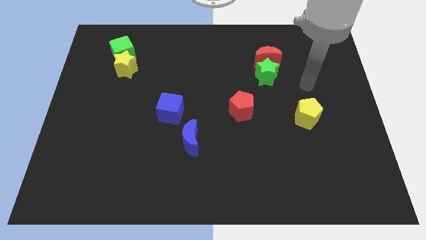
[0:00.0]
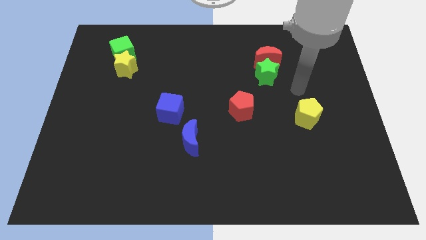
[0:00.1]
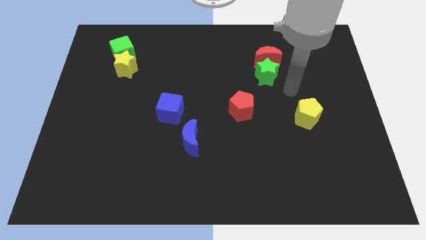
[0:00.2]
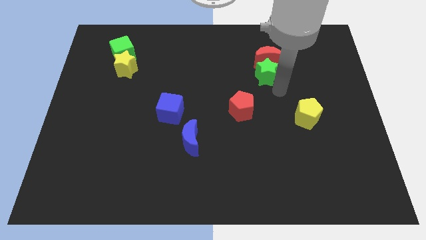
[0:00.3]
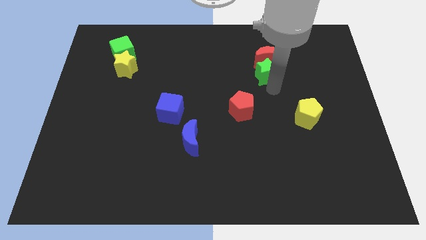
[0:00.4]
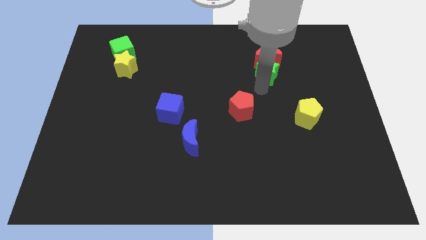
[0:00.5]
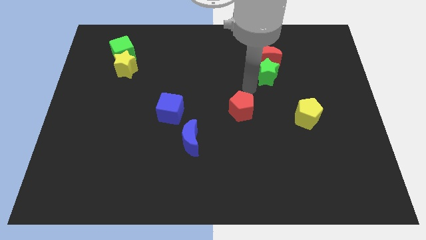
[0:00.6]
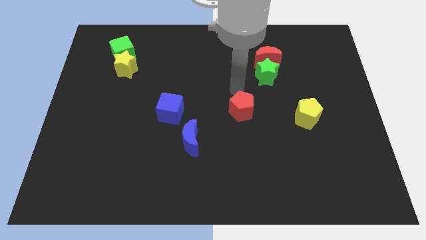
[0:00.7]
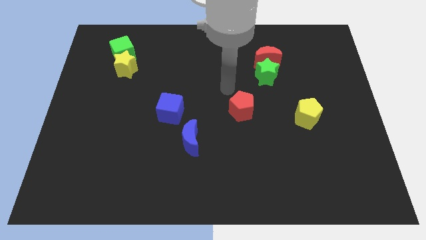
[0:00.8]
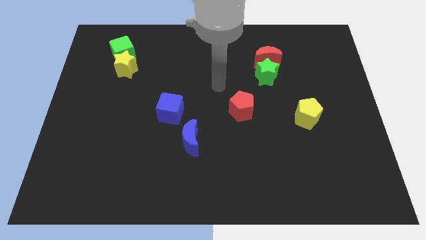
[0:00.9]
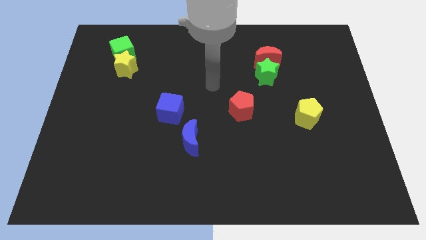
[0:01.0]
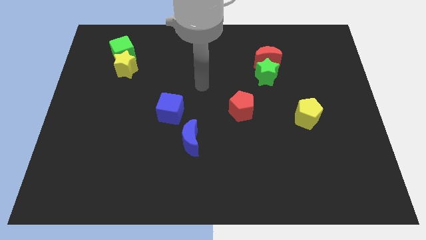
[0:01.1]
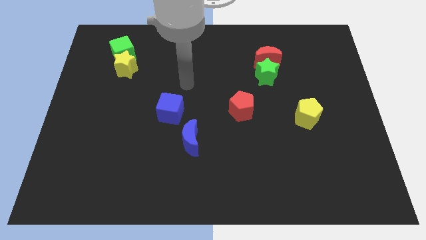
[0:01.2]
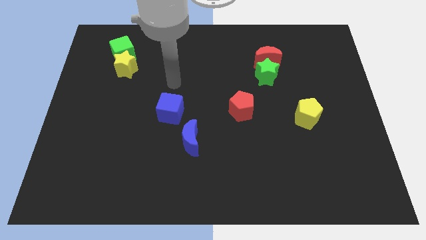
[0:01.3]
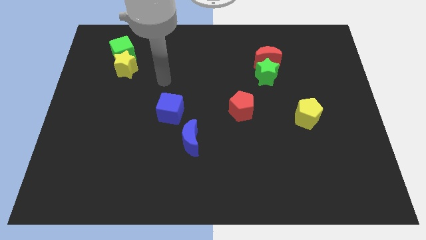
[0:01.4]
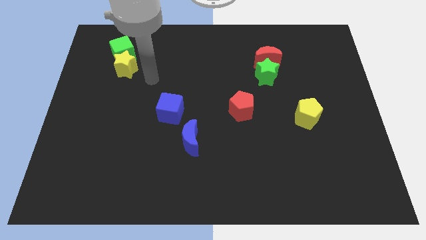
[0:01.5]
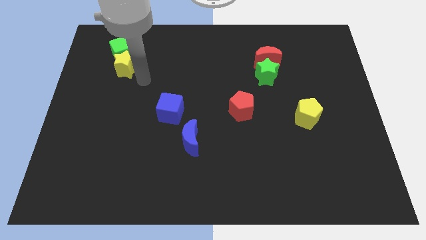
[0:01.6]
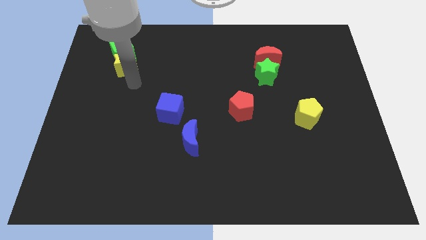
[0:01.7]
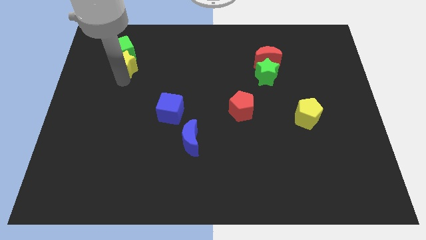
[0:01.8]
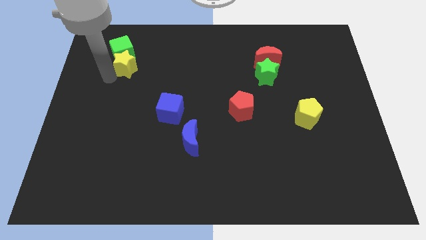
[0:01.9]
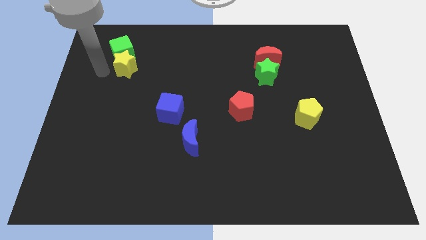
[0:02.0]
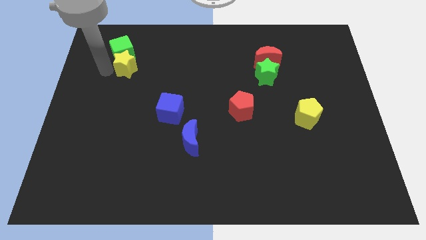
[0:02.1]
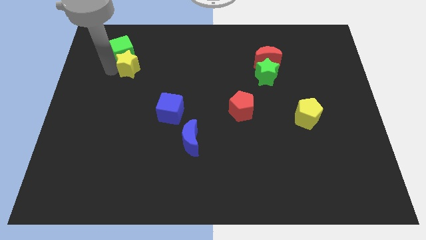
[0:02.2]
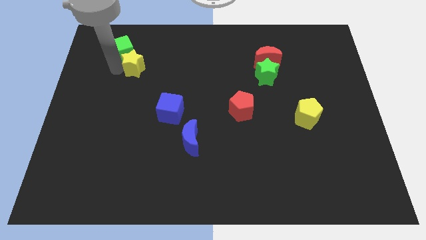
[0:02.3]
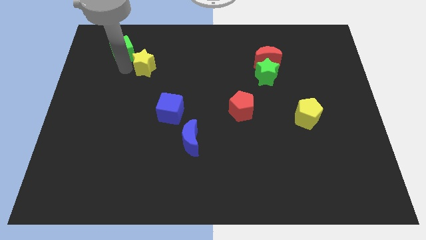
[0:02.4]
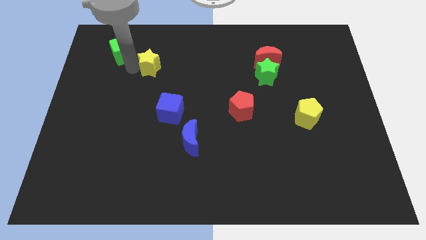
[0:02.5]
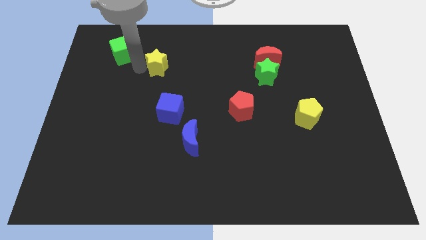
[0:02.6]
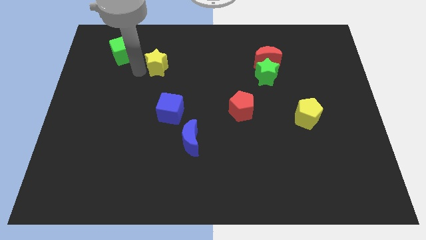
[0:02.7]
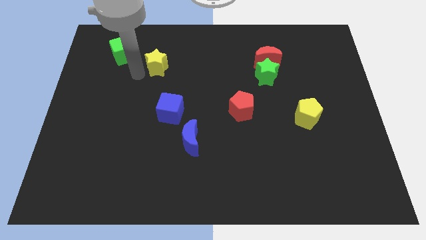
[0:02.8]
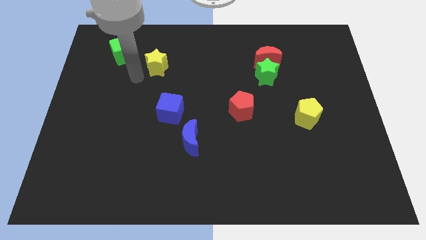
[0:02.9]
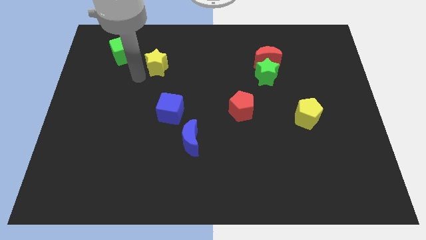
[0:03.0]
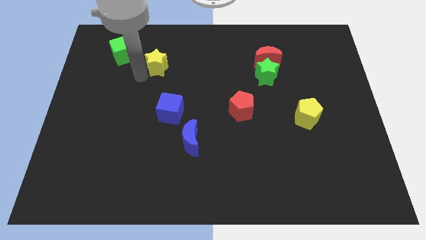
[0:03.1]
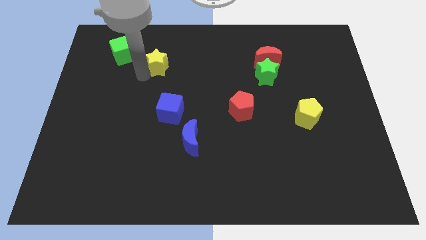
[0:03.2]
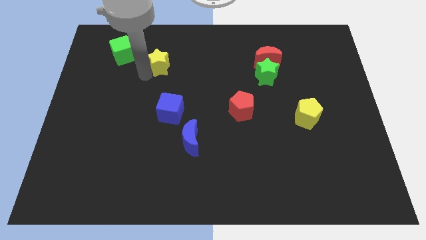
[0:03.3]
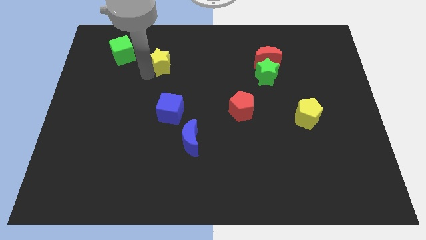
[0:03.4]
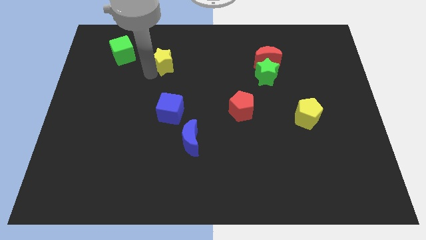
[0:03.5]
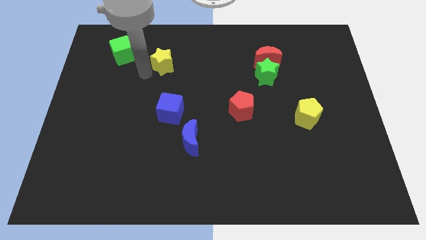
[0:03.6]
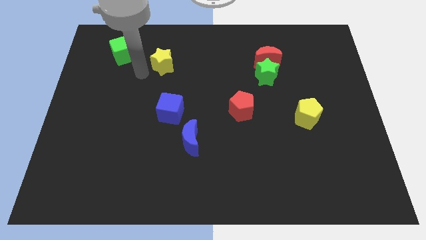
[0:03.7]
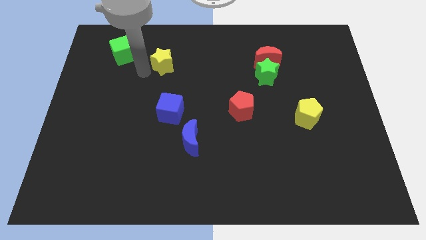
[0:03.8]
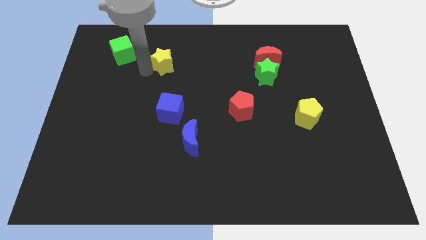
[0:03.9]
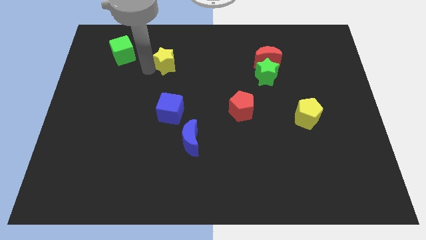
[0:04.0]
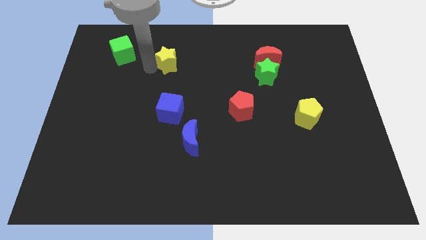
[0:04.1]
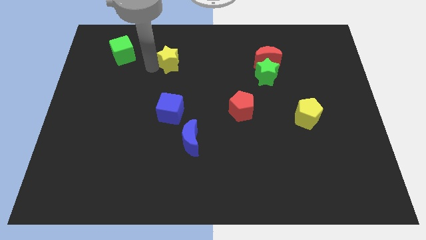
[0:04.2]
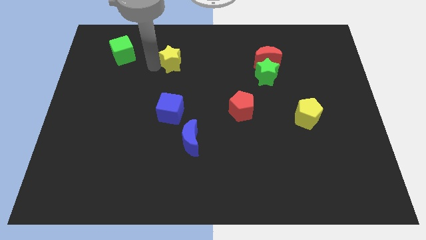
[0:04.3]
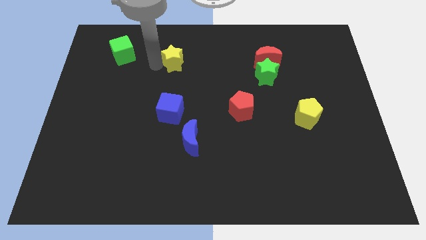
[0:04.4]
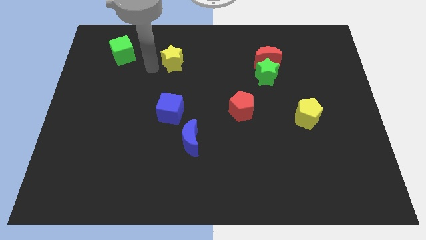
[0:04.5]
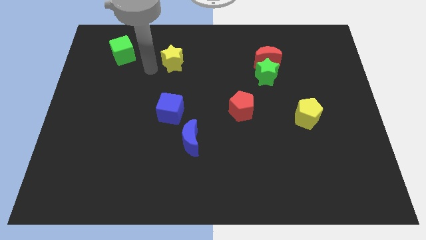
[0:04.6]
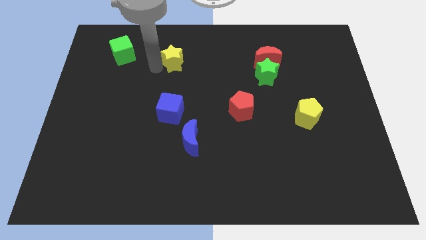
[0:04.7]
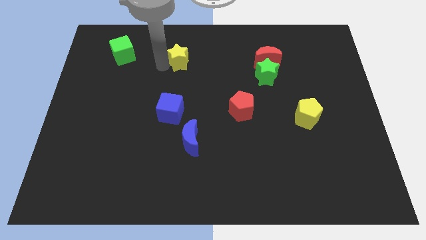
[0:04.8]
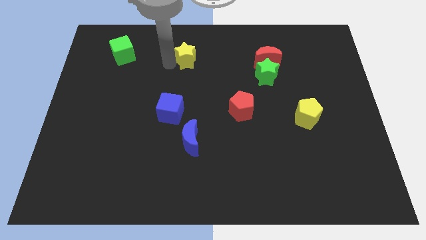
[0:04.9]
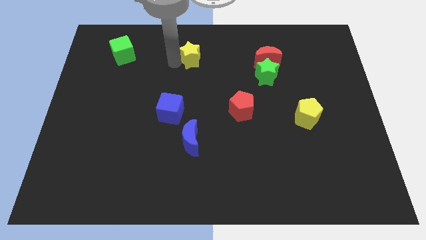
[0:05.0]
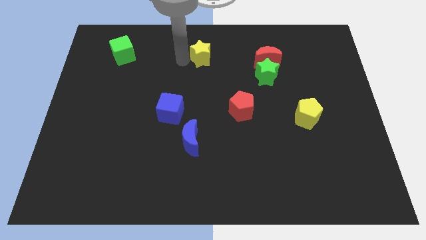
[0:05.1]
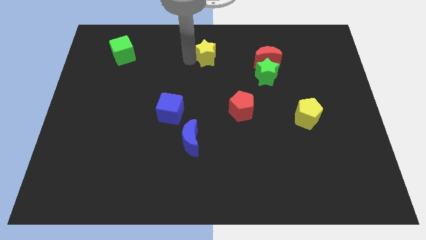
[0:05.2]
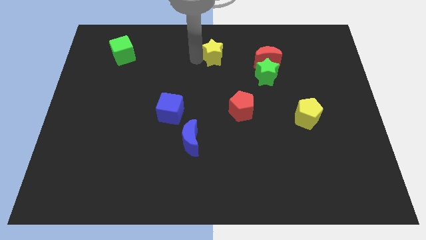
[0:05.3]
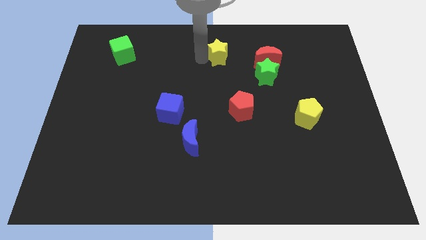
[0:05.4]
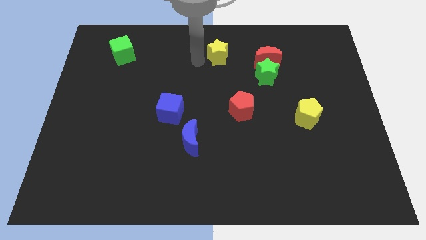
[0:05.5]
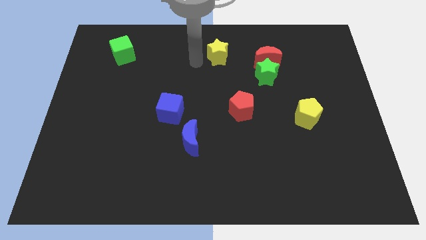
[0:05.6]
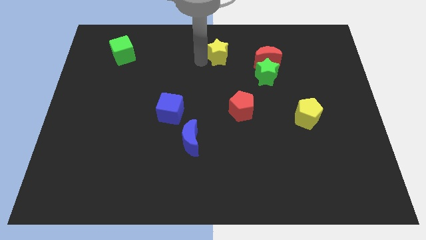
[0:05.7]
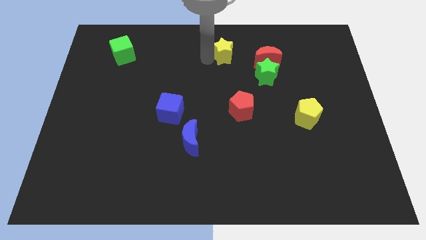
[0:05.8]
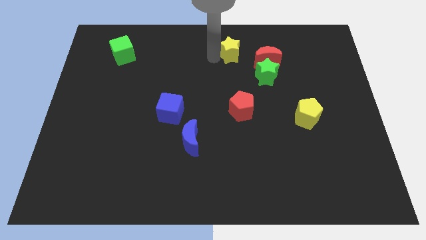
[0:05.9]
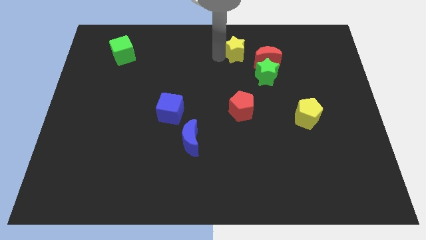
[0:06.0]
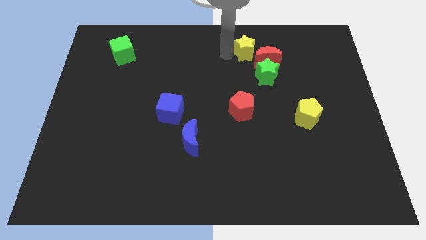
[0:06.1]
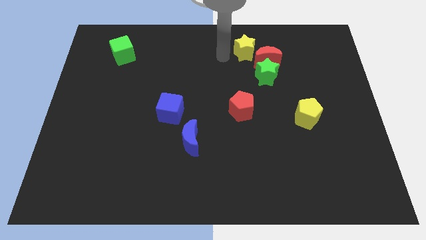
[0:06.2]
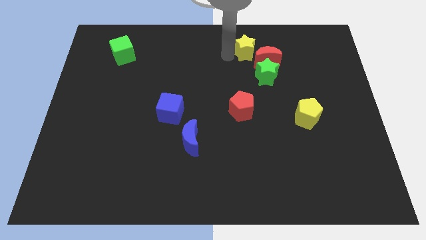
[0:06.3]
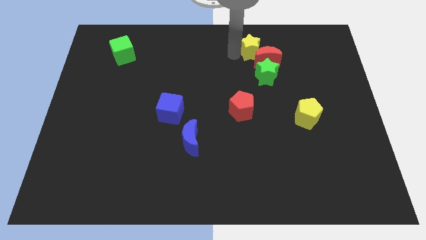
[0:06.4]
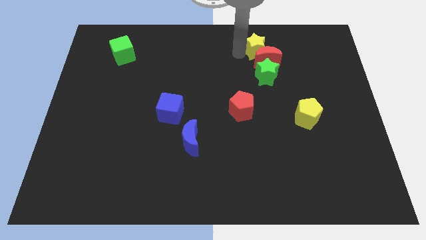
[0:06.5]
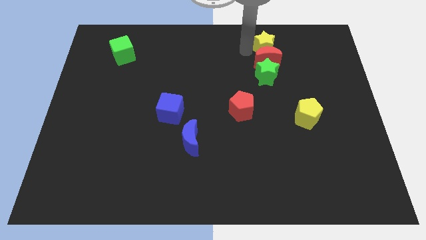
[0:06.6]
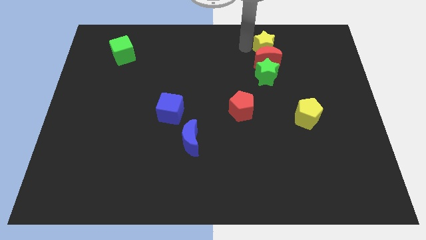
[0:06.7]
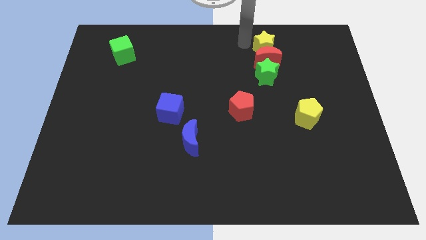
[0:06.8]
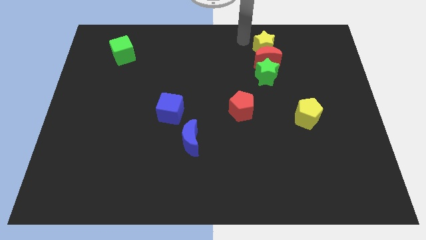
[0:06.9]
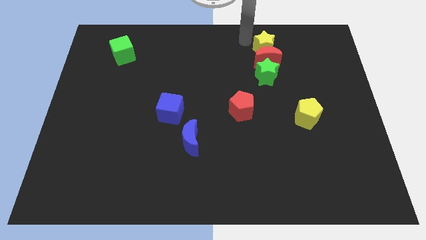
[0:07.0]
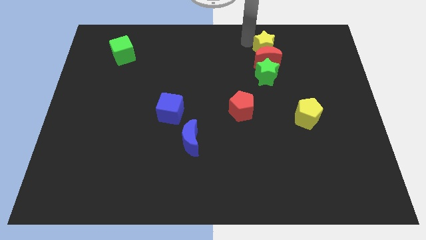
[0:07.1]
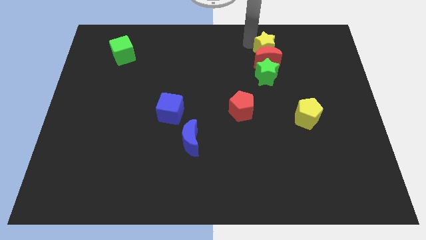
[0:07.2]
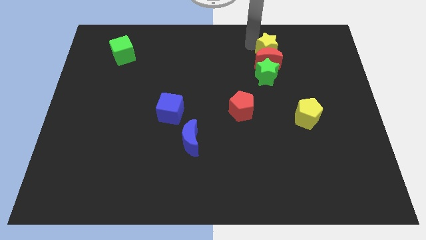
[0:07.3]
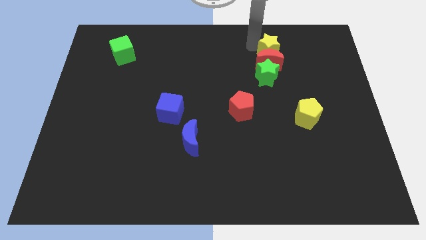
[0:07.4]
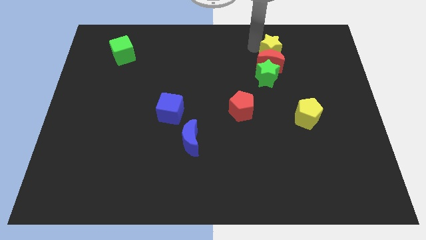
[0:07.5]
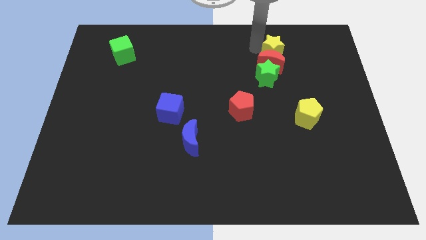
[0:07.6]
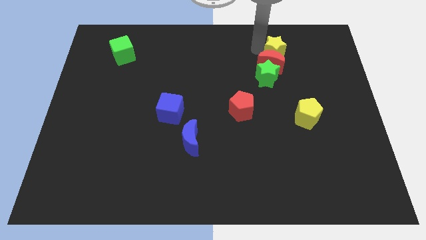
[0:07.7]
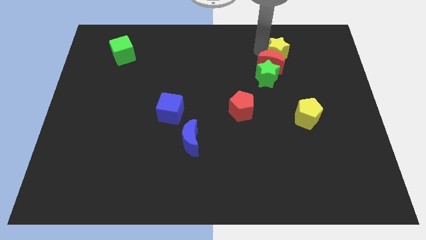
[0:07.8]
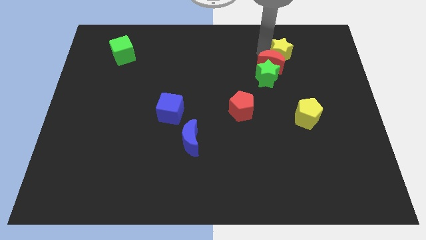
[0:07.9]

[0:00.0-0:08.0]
push the yellow star just right of the red moon
